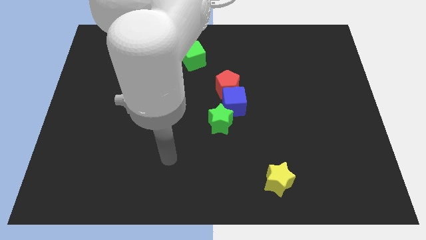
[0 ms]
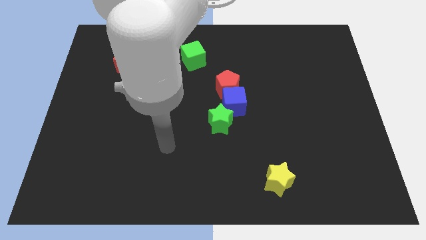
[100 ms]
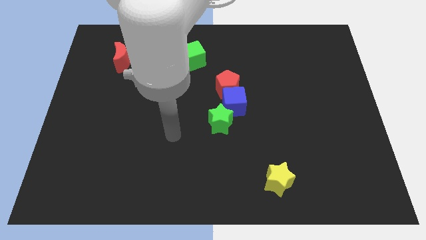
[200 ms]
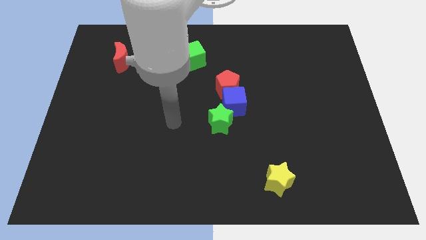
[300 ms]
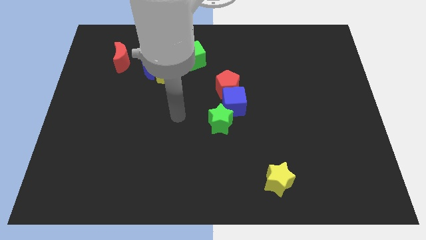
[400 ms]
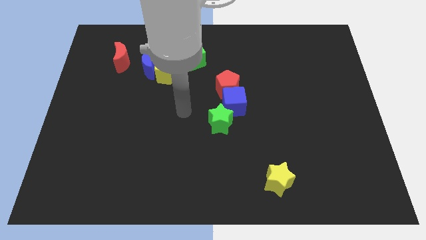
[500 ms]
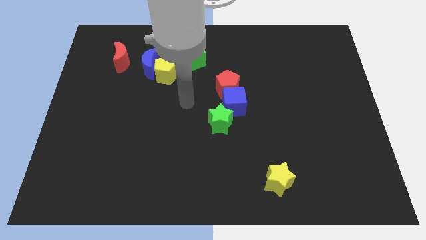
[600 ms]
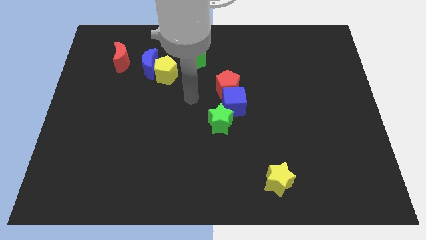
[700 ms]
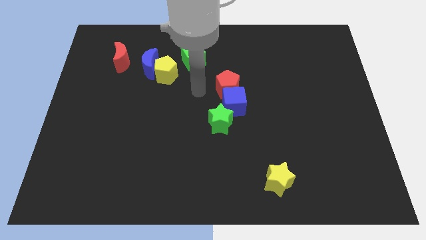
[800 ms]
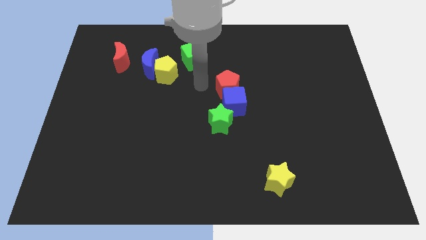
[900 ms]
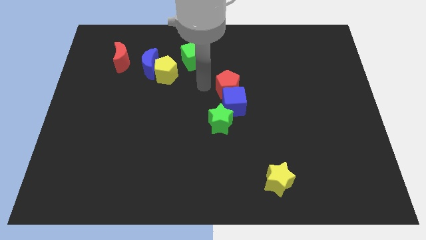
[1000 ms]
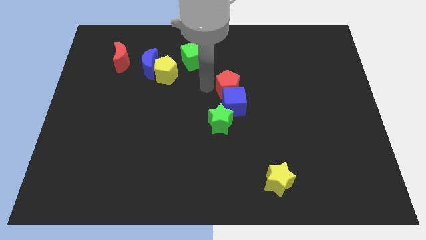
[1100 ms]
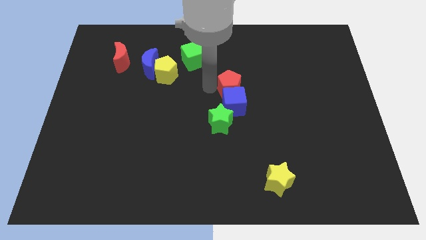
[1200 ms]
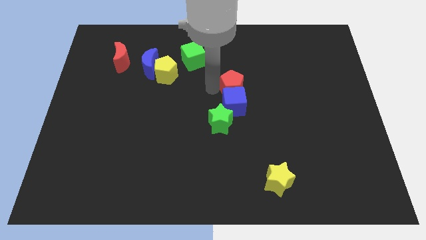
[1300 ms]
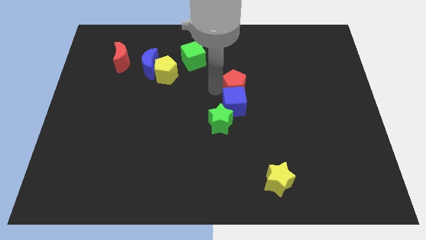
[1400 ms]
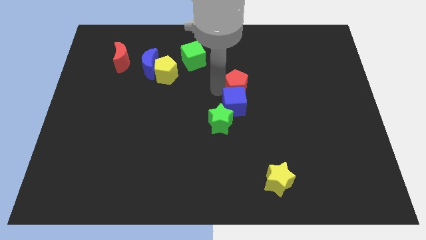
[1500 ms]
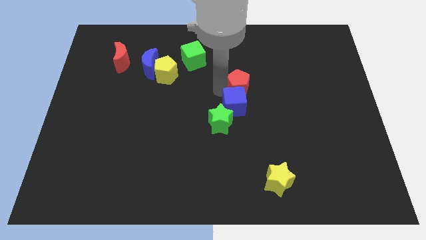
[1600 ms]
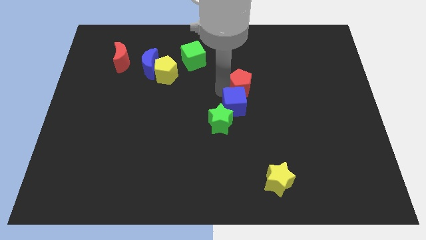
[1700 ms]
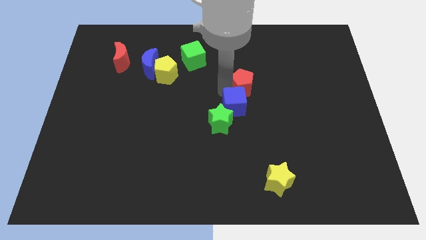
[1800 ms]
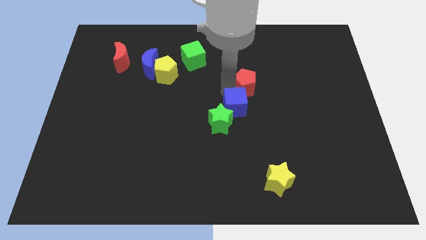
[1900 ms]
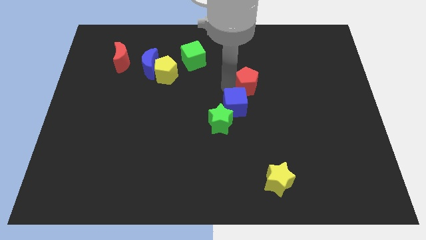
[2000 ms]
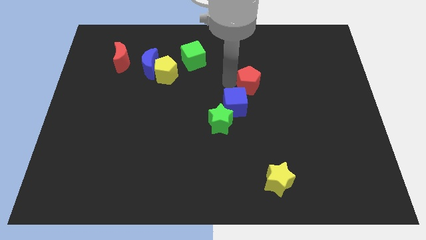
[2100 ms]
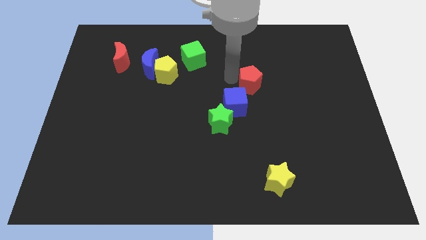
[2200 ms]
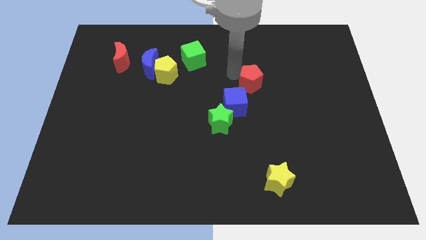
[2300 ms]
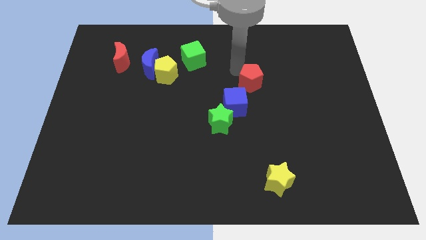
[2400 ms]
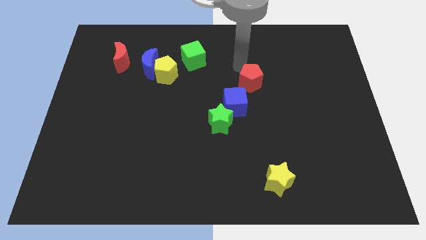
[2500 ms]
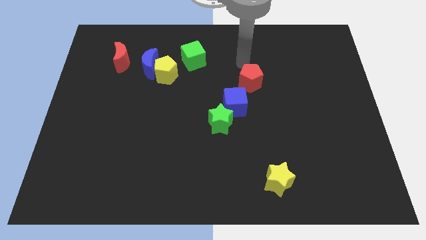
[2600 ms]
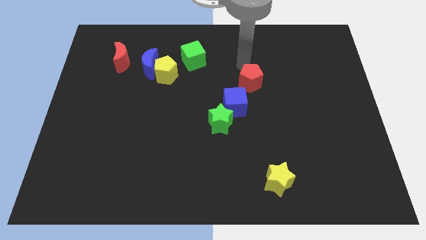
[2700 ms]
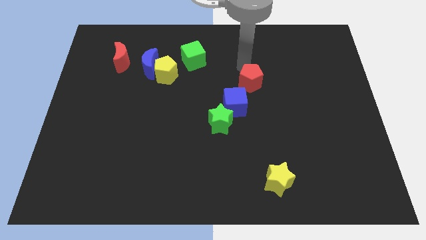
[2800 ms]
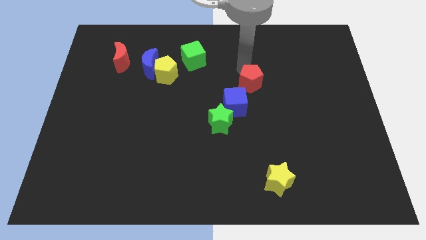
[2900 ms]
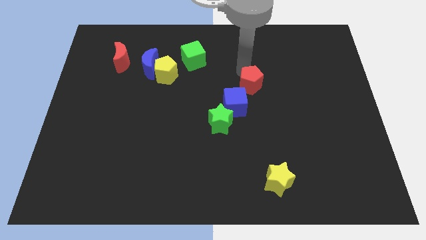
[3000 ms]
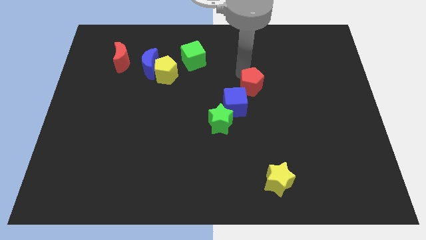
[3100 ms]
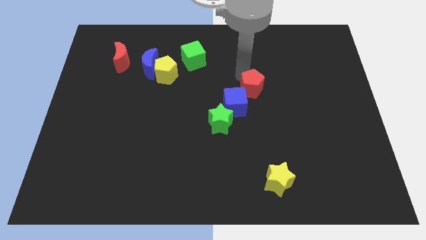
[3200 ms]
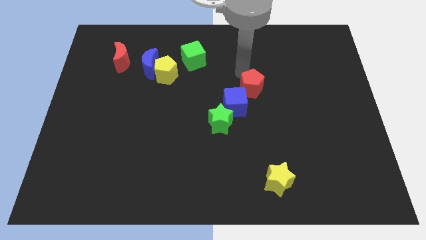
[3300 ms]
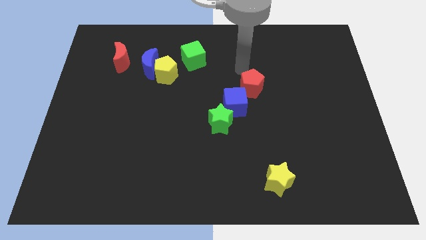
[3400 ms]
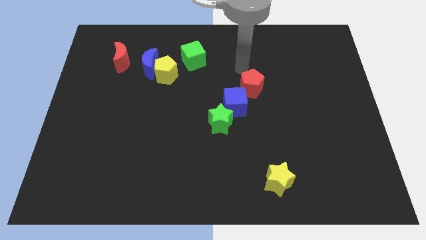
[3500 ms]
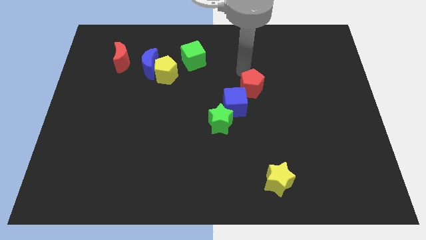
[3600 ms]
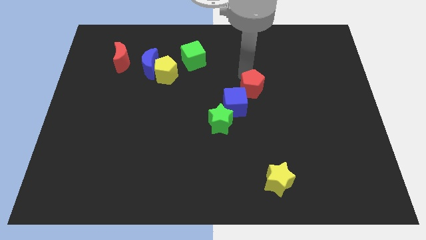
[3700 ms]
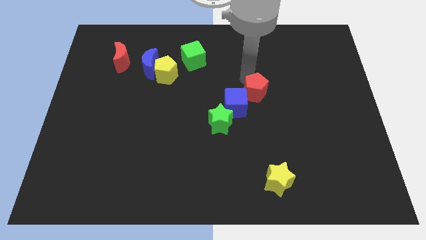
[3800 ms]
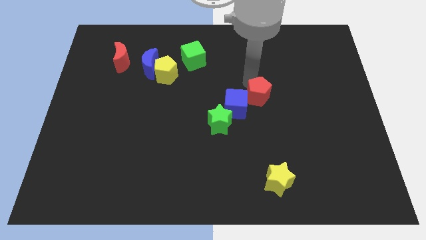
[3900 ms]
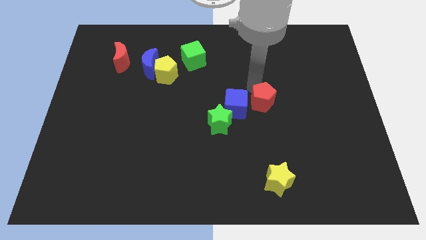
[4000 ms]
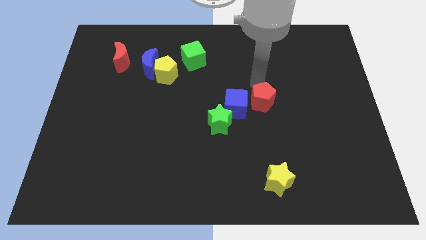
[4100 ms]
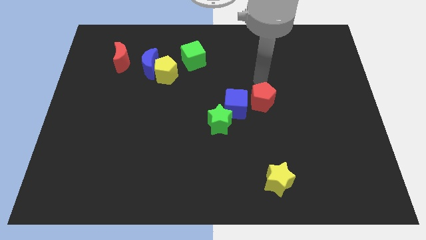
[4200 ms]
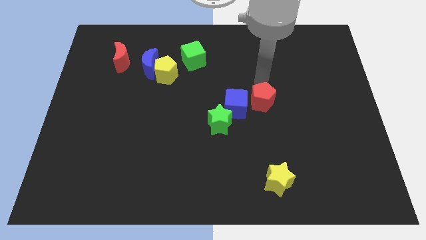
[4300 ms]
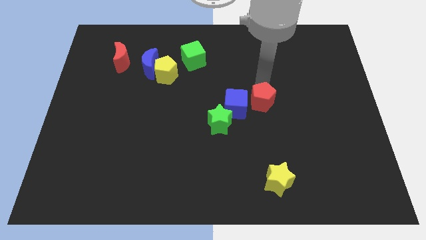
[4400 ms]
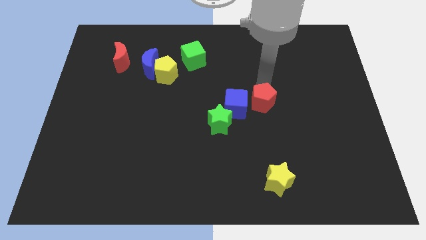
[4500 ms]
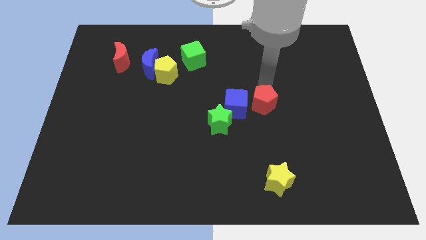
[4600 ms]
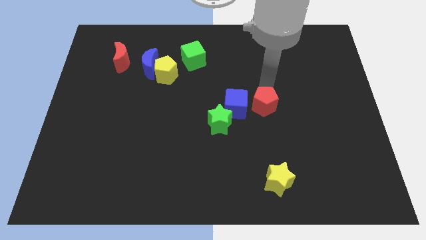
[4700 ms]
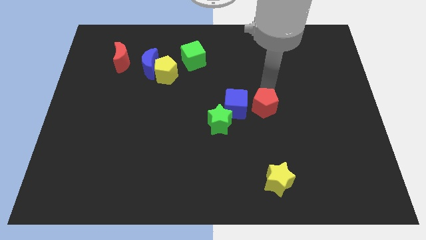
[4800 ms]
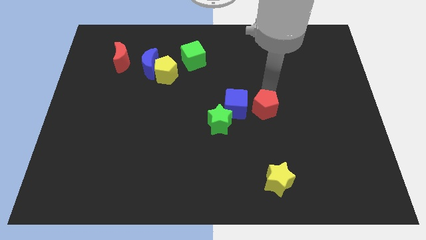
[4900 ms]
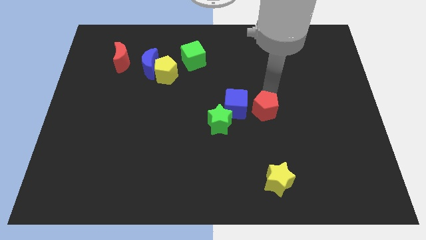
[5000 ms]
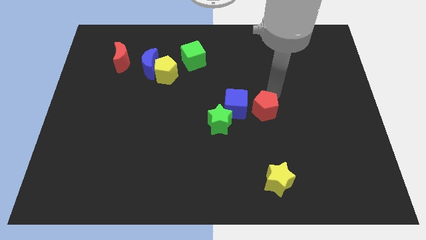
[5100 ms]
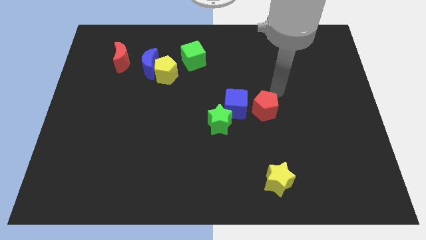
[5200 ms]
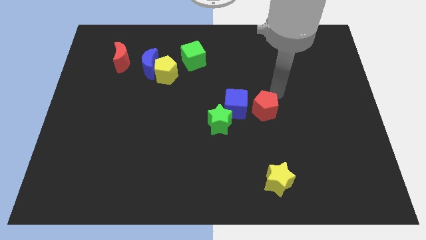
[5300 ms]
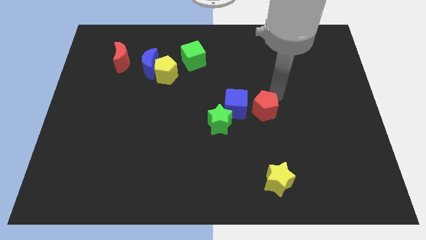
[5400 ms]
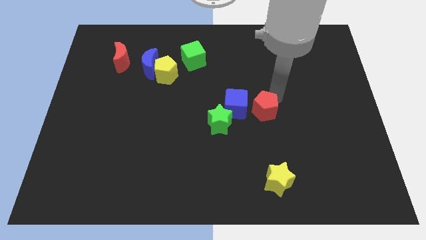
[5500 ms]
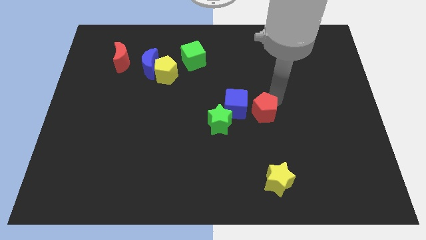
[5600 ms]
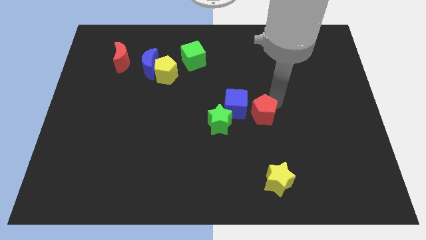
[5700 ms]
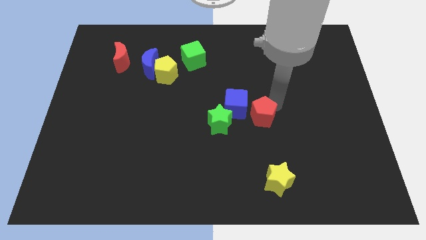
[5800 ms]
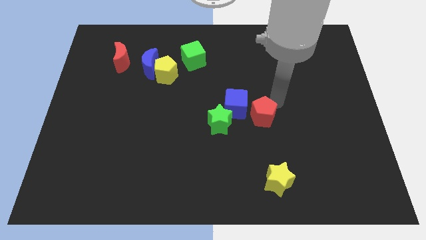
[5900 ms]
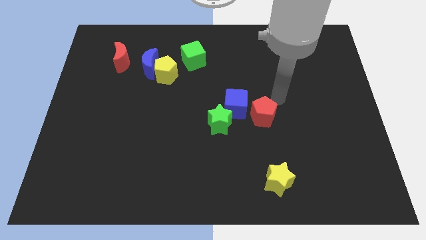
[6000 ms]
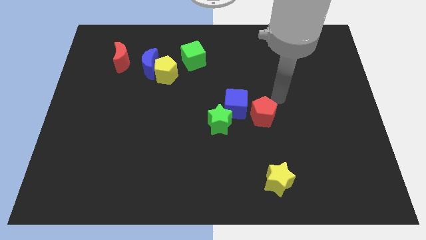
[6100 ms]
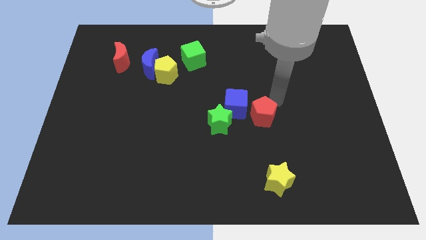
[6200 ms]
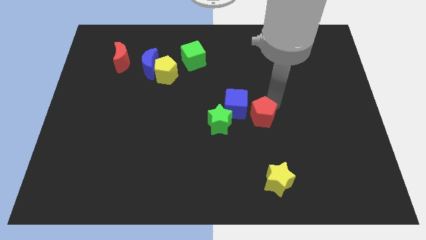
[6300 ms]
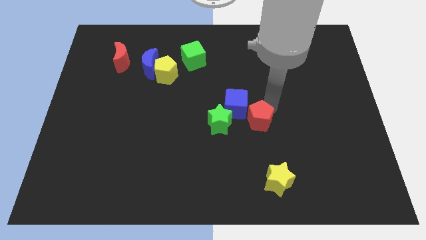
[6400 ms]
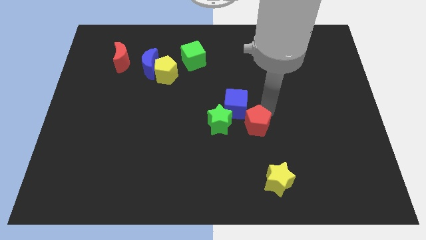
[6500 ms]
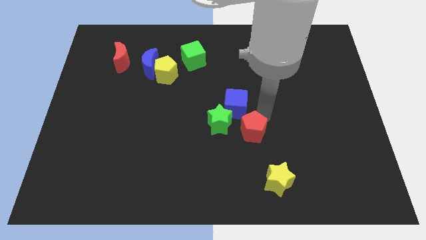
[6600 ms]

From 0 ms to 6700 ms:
push the red pentagon diagonally down and to the right of the green star
